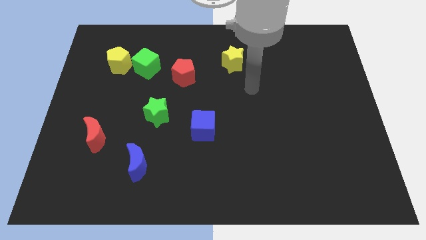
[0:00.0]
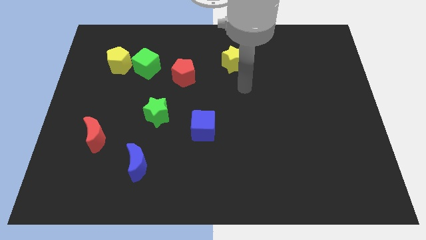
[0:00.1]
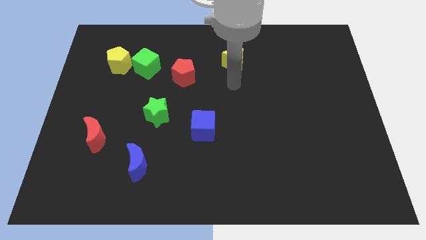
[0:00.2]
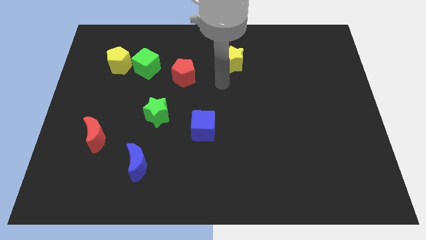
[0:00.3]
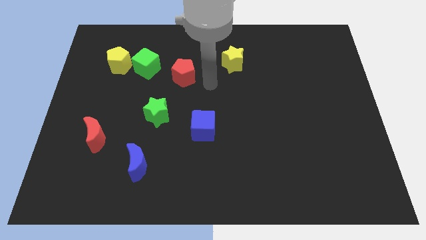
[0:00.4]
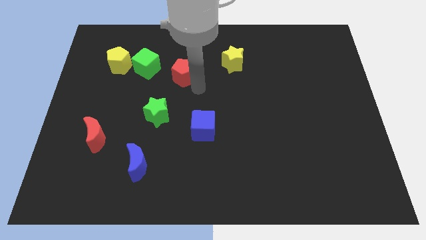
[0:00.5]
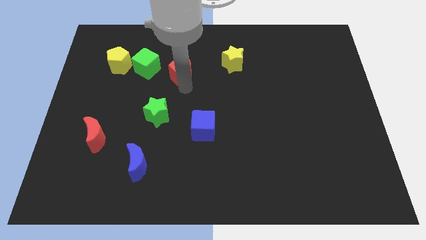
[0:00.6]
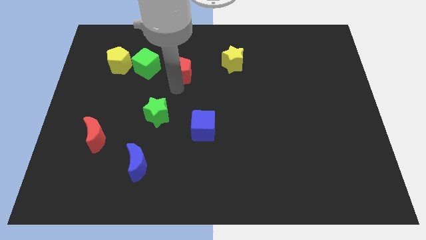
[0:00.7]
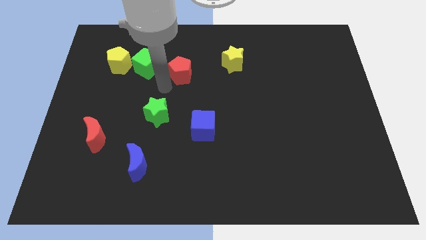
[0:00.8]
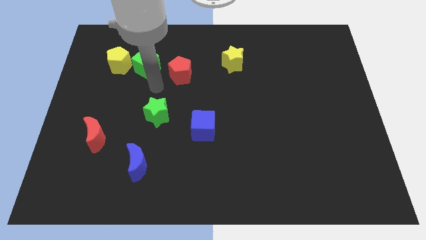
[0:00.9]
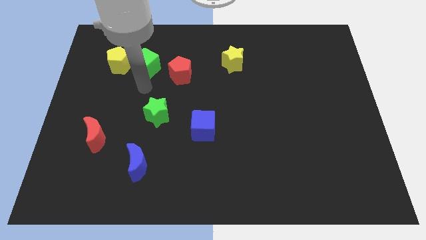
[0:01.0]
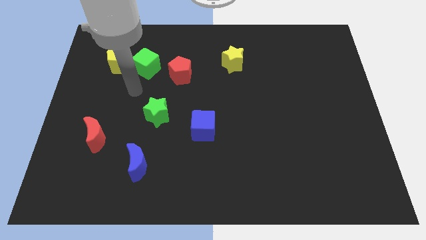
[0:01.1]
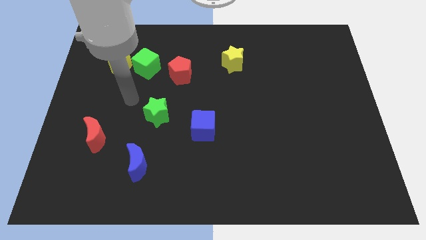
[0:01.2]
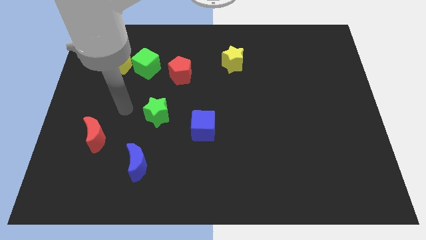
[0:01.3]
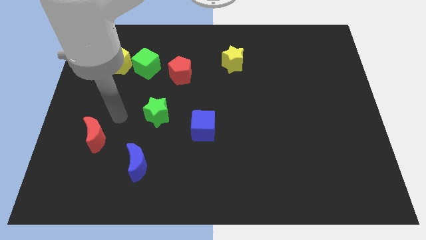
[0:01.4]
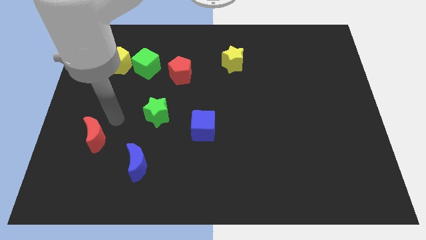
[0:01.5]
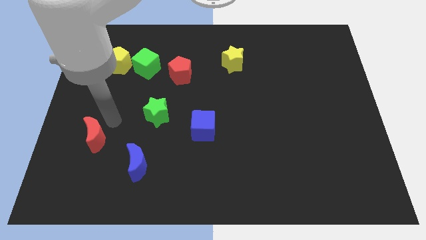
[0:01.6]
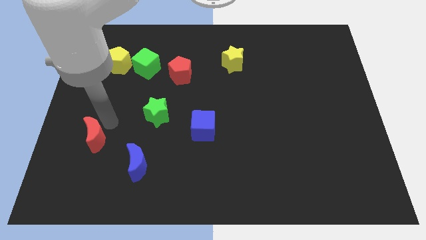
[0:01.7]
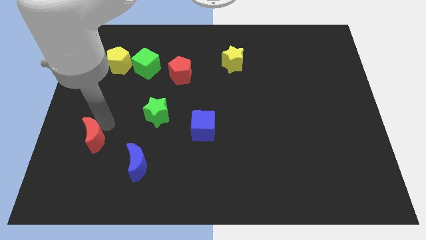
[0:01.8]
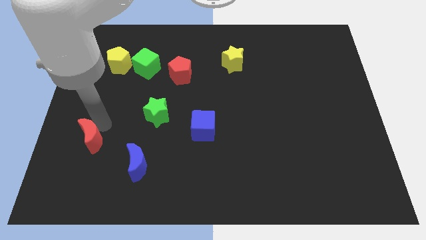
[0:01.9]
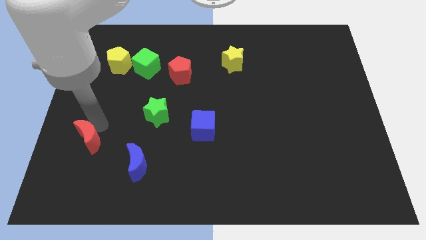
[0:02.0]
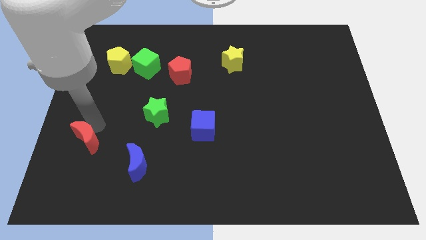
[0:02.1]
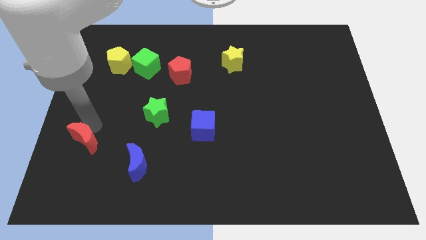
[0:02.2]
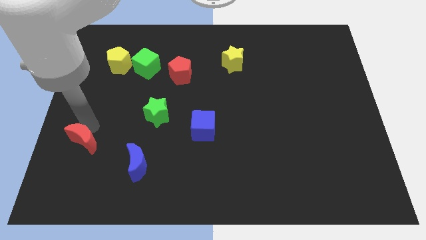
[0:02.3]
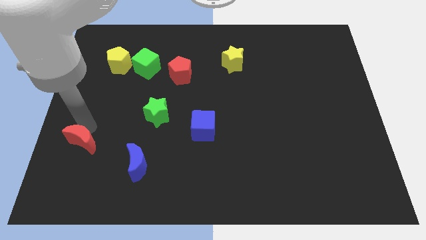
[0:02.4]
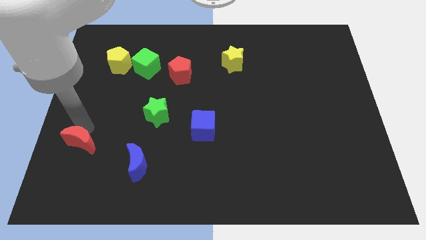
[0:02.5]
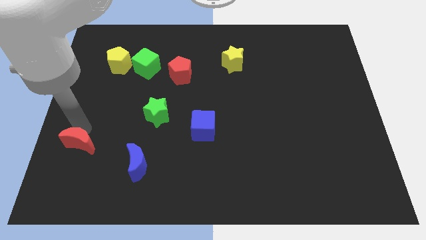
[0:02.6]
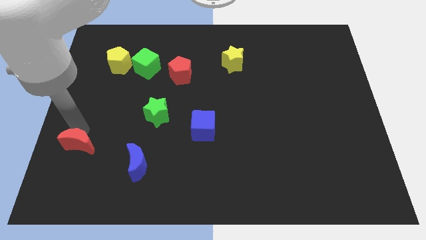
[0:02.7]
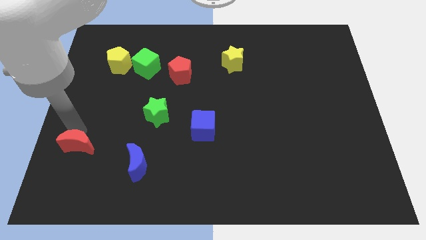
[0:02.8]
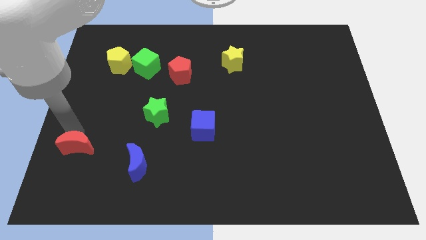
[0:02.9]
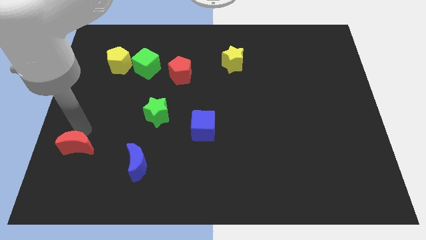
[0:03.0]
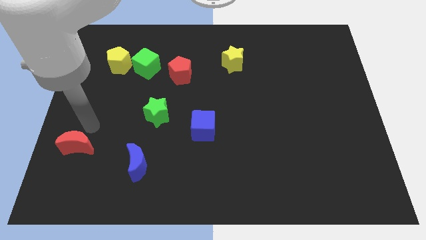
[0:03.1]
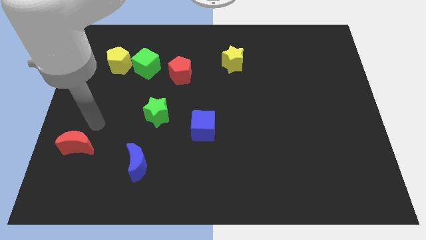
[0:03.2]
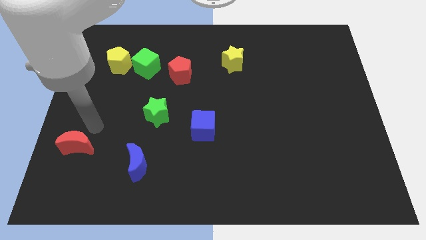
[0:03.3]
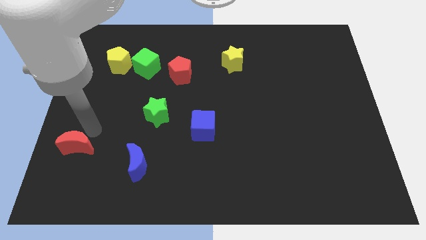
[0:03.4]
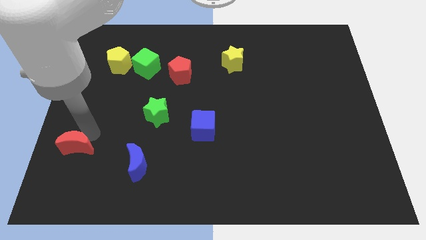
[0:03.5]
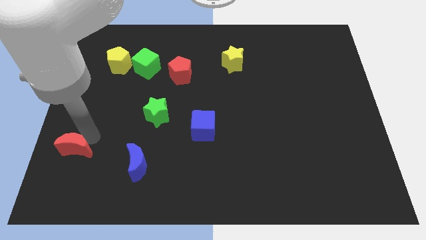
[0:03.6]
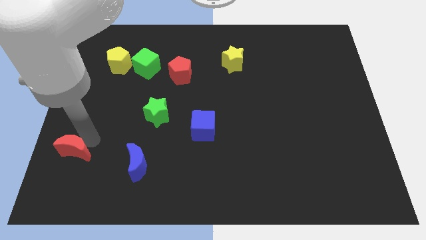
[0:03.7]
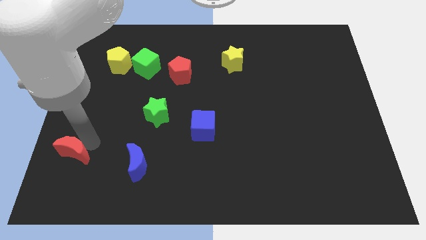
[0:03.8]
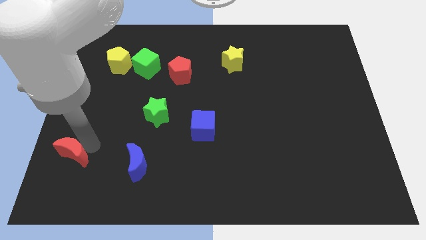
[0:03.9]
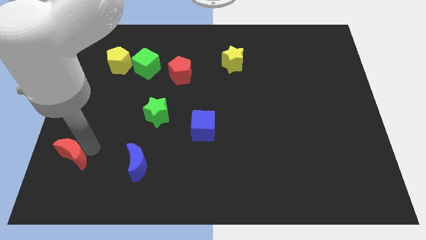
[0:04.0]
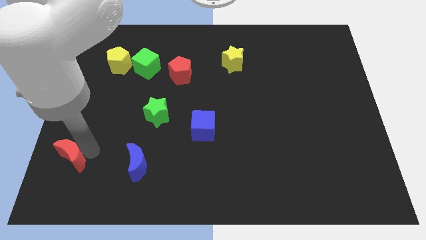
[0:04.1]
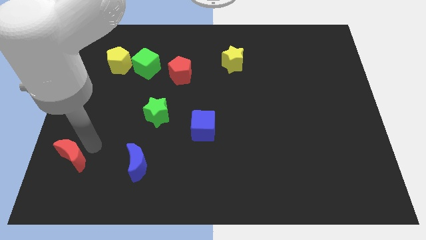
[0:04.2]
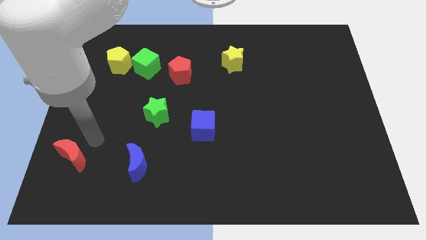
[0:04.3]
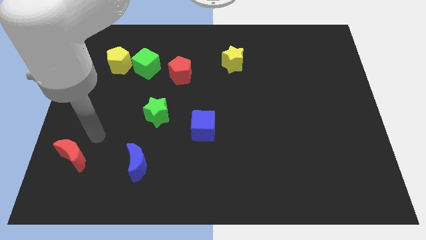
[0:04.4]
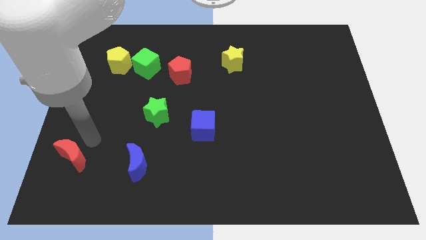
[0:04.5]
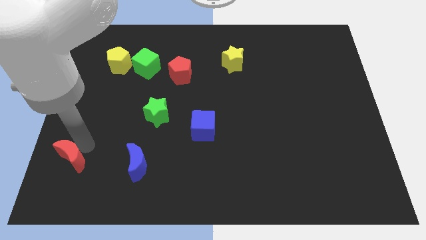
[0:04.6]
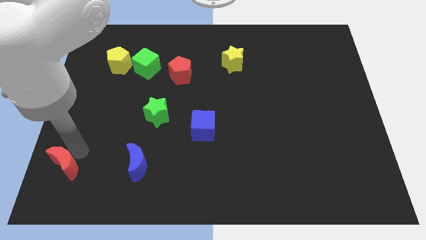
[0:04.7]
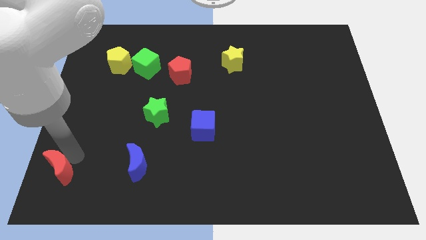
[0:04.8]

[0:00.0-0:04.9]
push the red moon to the bottom left

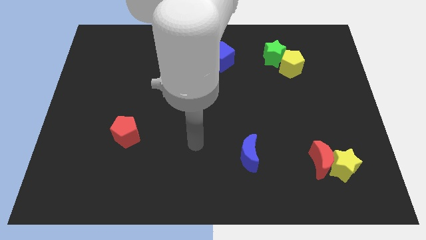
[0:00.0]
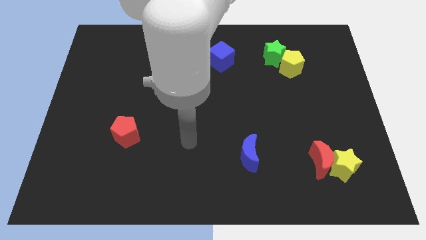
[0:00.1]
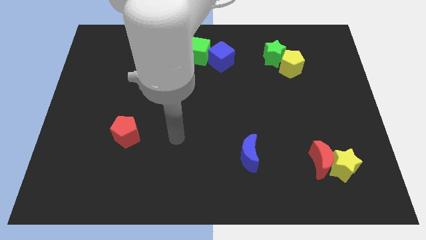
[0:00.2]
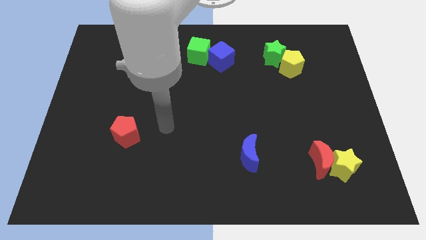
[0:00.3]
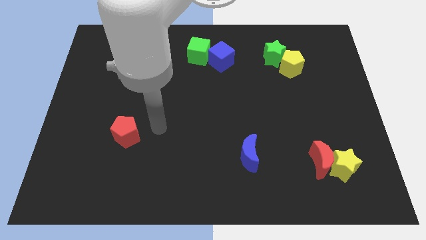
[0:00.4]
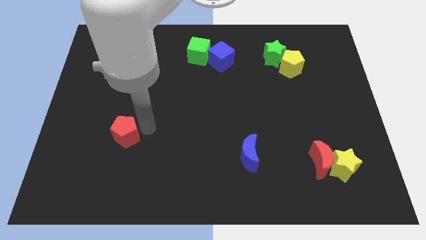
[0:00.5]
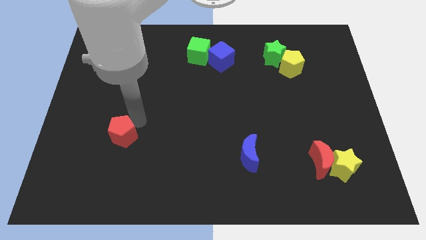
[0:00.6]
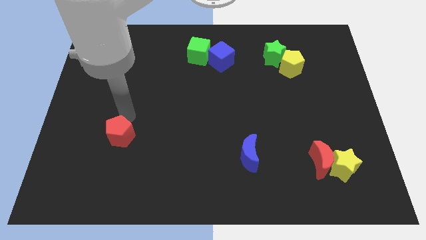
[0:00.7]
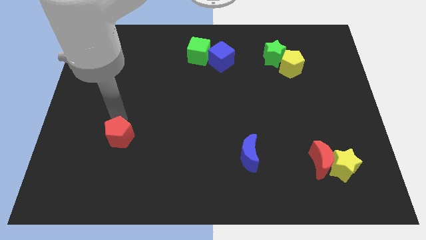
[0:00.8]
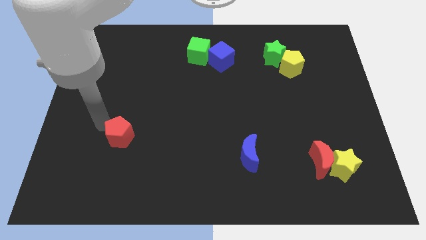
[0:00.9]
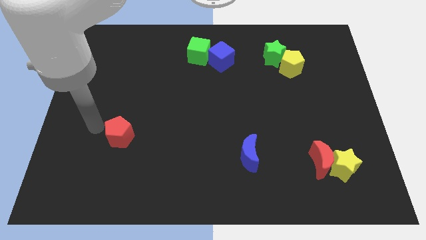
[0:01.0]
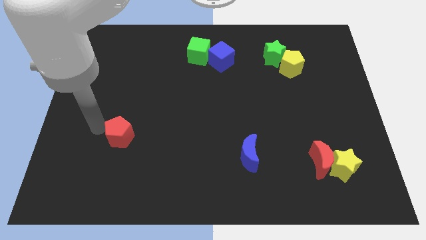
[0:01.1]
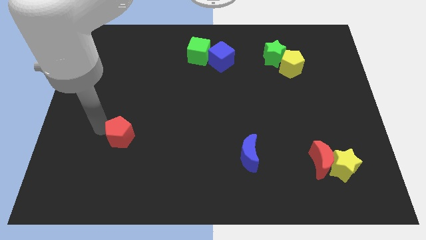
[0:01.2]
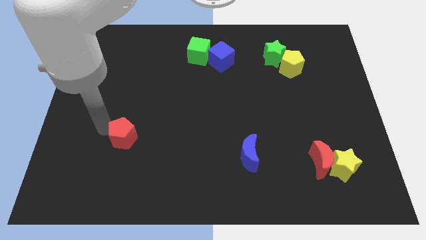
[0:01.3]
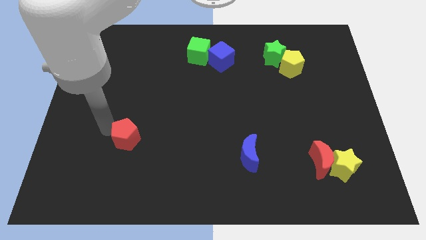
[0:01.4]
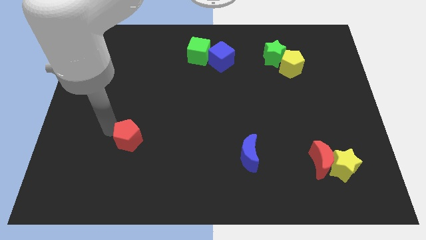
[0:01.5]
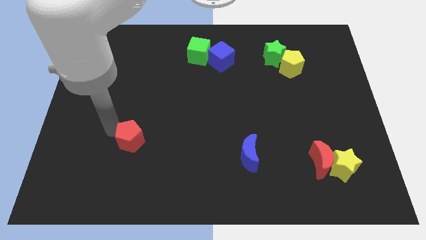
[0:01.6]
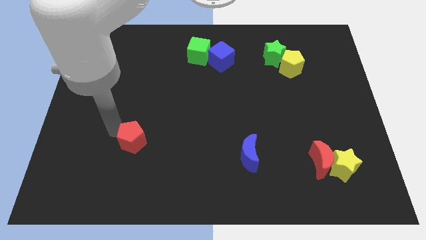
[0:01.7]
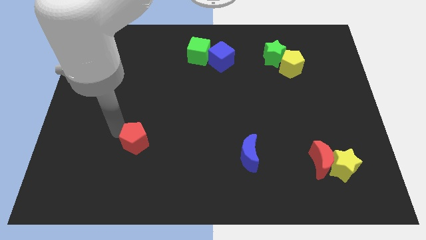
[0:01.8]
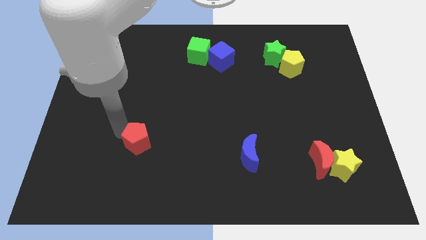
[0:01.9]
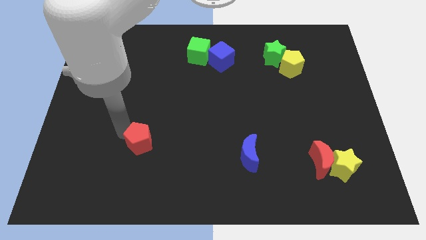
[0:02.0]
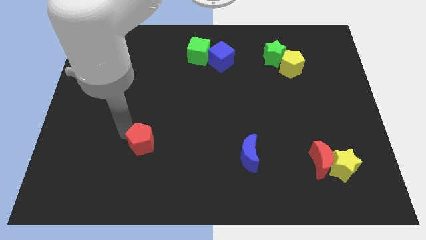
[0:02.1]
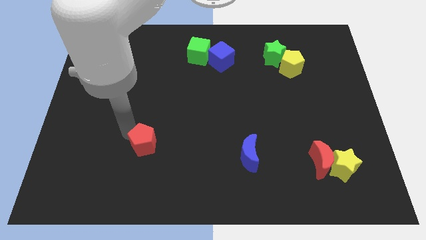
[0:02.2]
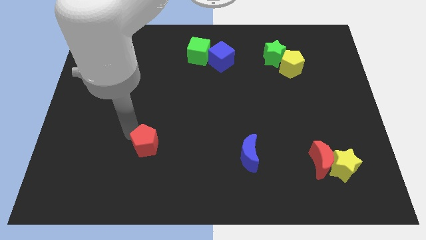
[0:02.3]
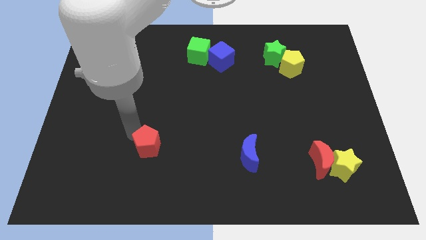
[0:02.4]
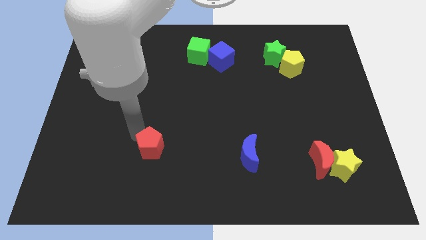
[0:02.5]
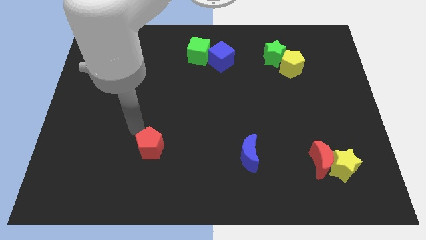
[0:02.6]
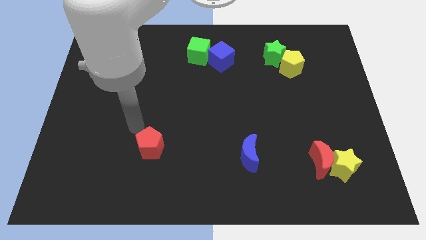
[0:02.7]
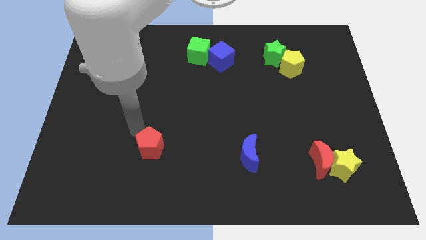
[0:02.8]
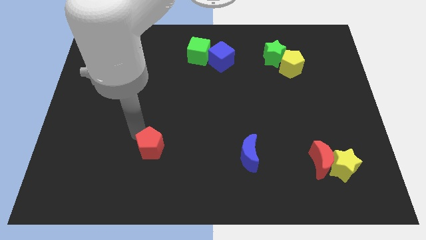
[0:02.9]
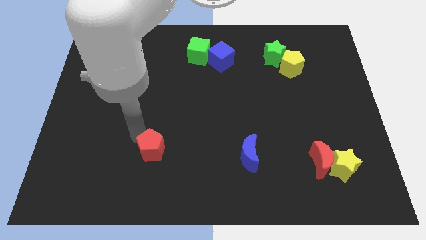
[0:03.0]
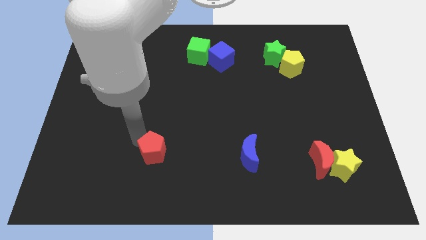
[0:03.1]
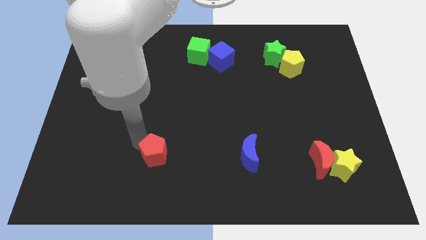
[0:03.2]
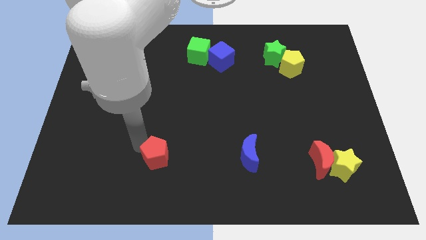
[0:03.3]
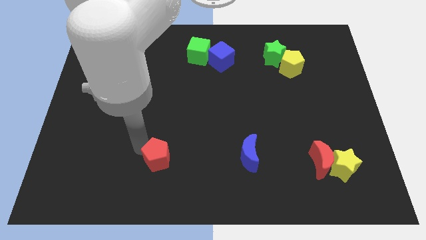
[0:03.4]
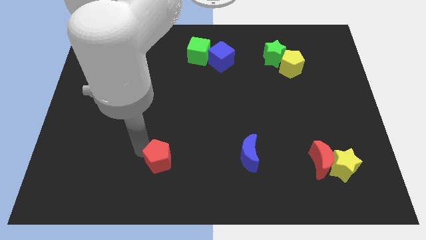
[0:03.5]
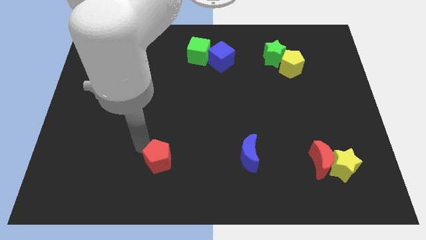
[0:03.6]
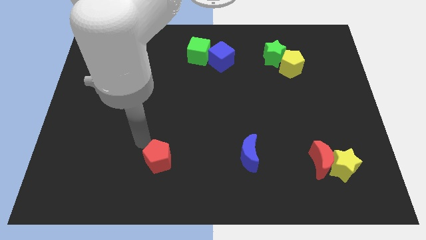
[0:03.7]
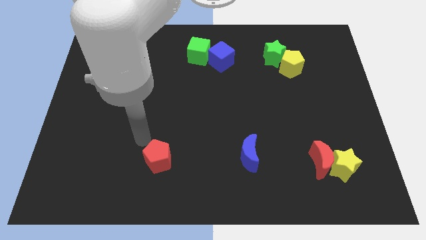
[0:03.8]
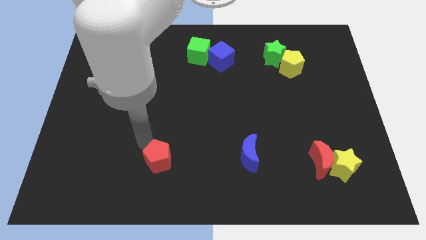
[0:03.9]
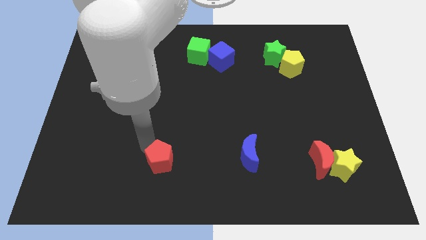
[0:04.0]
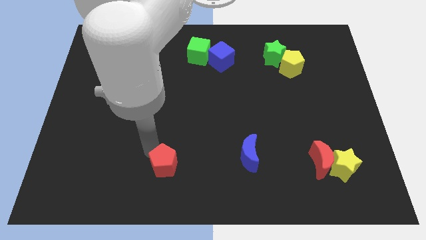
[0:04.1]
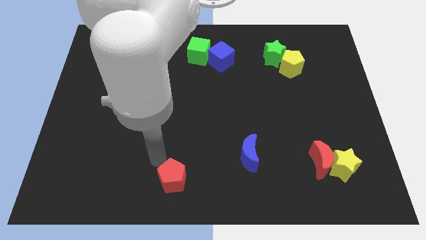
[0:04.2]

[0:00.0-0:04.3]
push the red pentagon to the bottom
